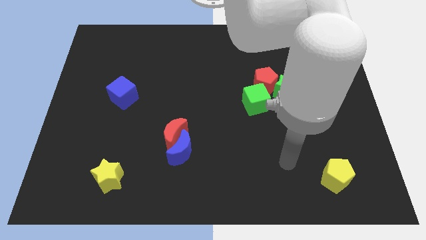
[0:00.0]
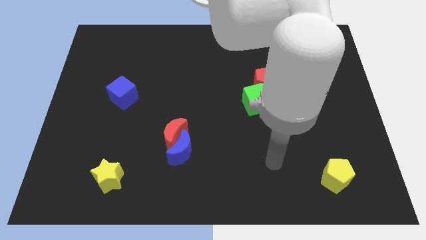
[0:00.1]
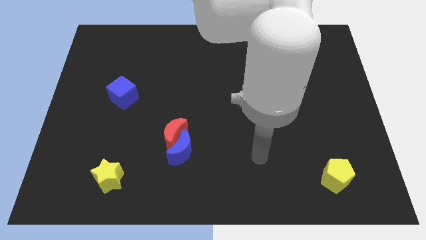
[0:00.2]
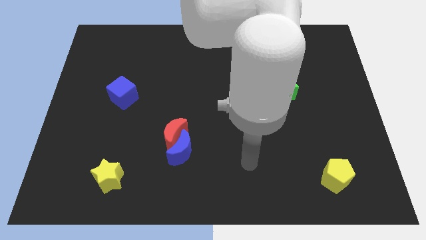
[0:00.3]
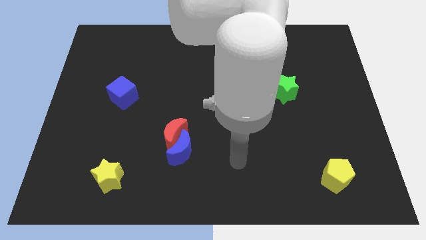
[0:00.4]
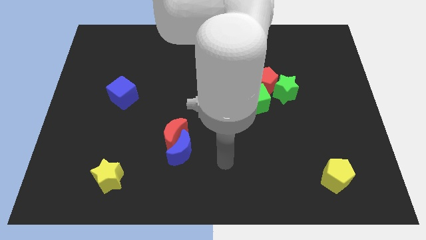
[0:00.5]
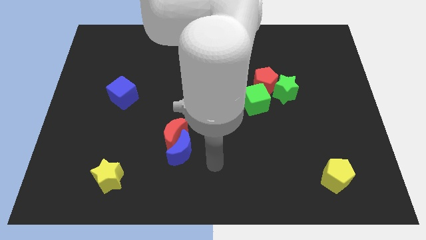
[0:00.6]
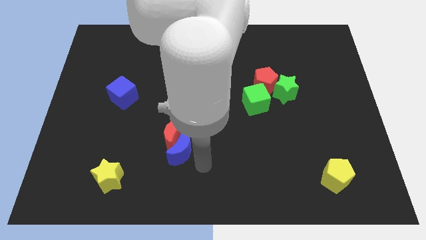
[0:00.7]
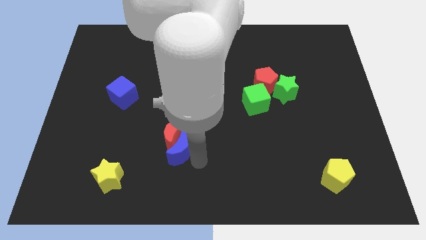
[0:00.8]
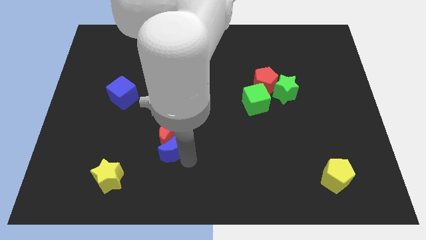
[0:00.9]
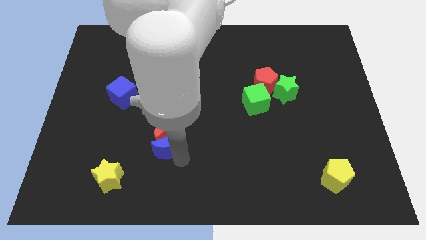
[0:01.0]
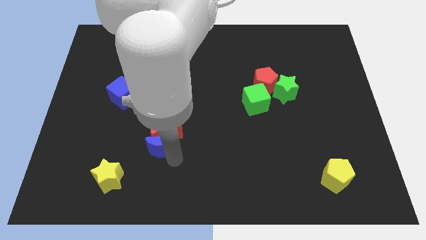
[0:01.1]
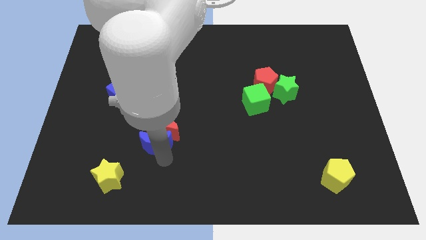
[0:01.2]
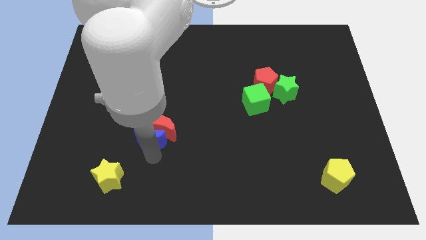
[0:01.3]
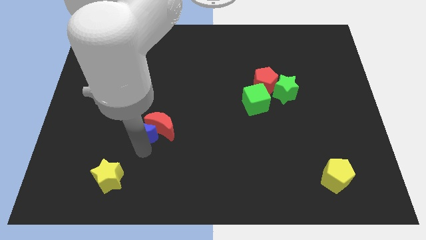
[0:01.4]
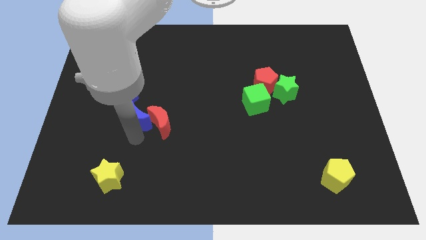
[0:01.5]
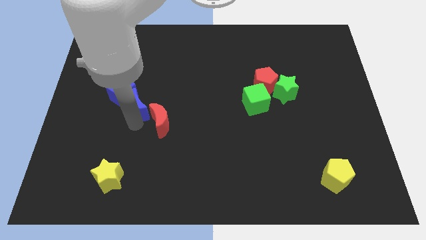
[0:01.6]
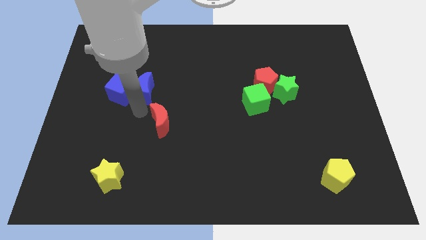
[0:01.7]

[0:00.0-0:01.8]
pull the red moon apart from the blue moon

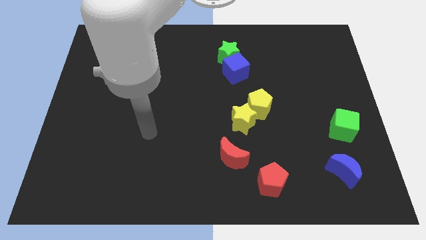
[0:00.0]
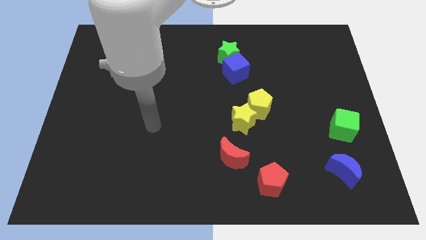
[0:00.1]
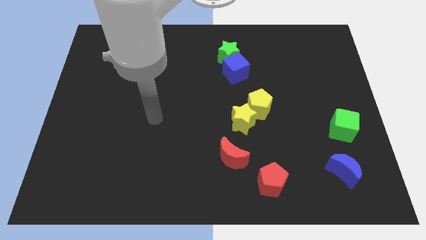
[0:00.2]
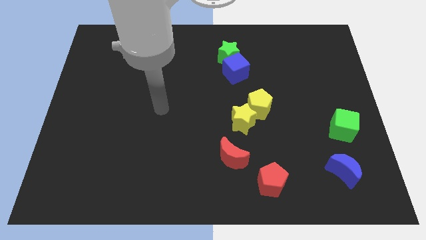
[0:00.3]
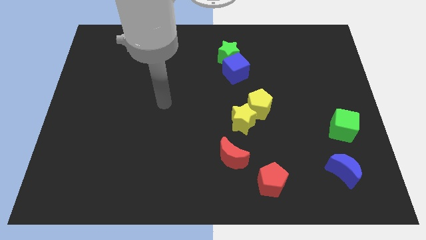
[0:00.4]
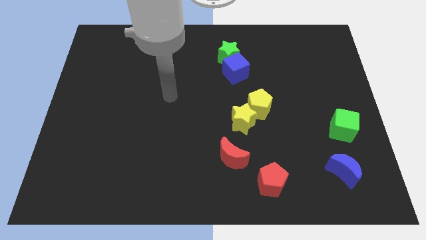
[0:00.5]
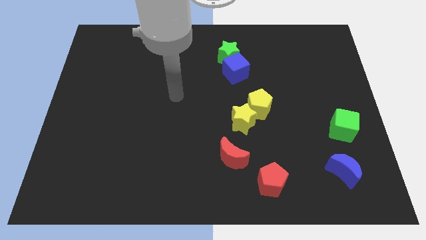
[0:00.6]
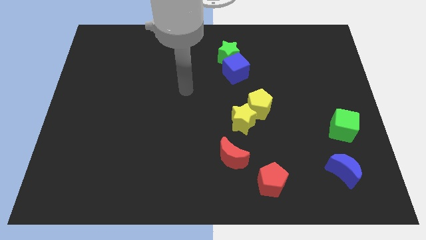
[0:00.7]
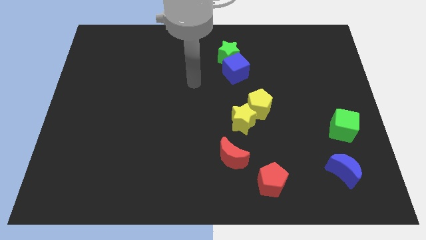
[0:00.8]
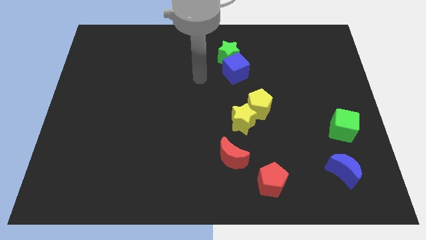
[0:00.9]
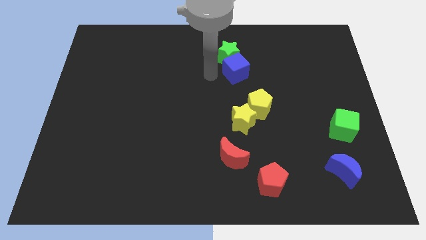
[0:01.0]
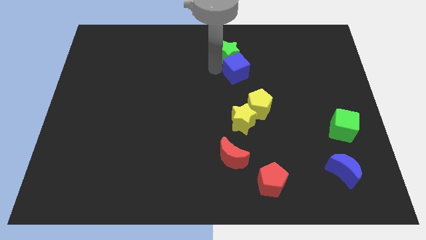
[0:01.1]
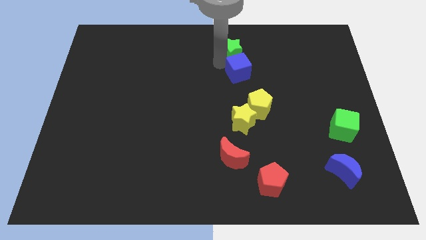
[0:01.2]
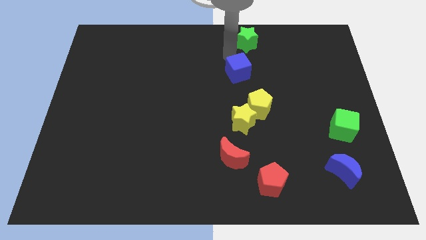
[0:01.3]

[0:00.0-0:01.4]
move the blue cube away from the green star

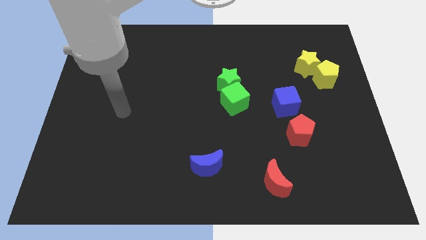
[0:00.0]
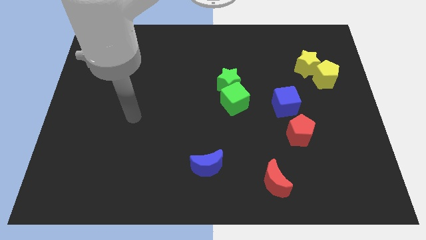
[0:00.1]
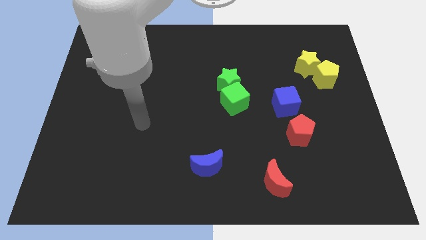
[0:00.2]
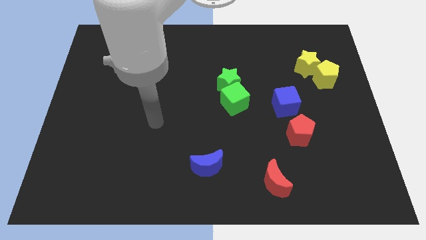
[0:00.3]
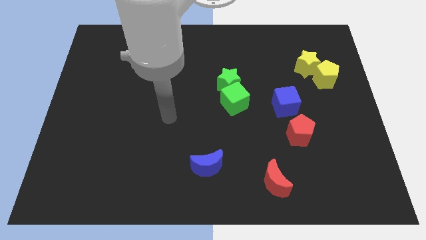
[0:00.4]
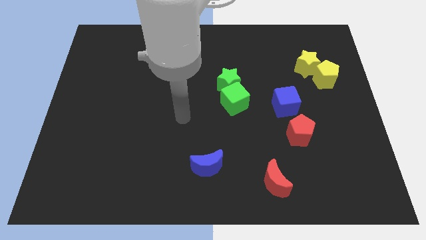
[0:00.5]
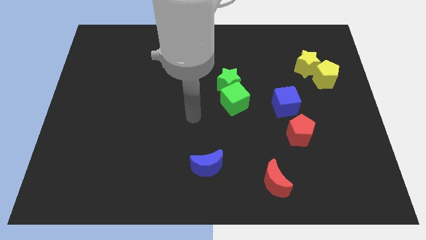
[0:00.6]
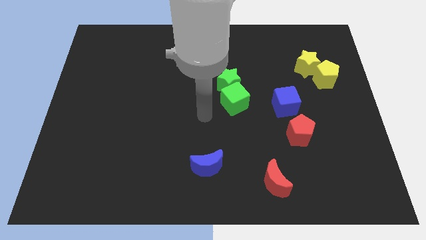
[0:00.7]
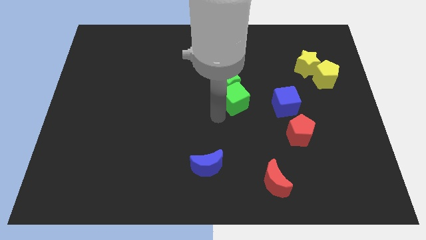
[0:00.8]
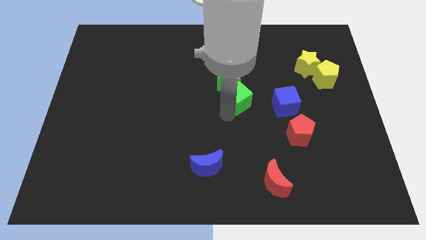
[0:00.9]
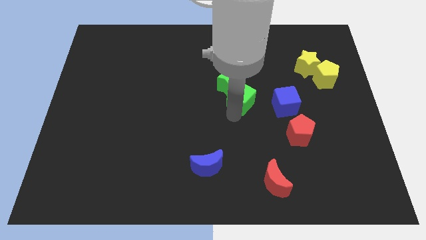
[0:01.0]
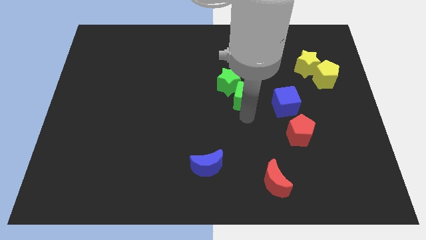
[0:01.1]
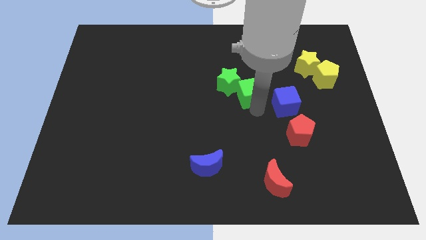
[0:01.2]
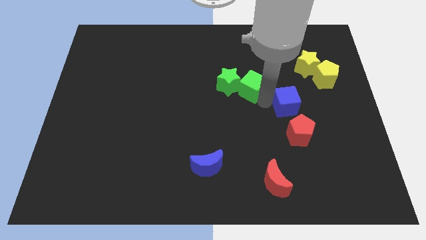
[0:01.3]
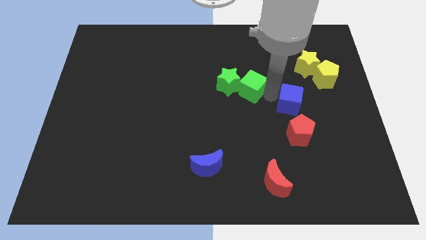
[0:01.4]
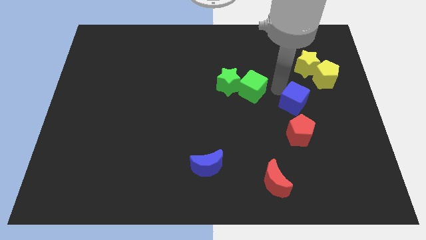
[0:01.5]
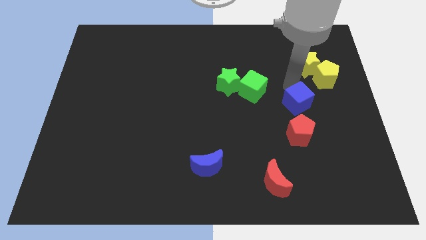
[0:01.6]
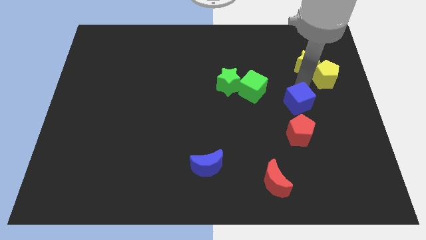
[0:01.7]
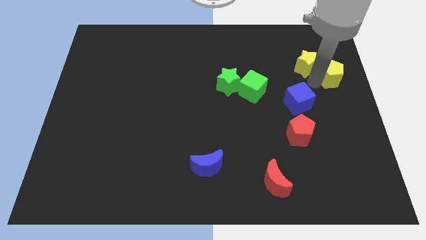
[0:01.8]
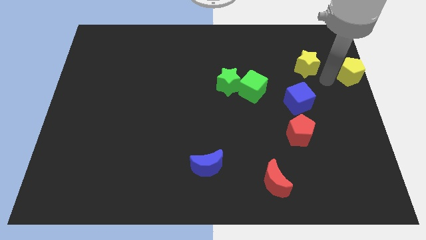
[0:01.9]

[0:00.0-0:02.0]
move the yellow star away from the yellow pentagon

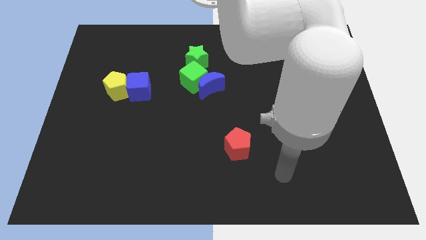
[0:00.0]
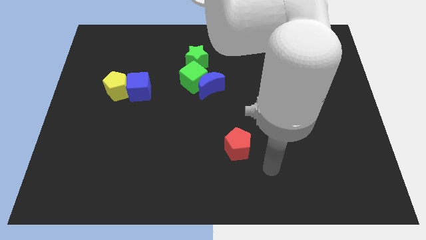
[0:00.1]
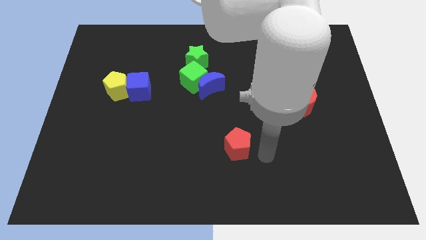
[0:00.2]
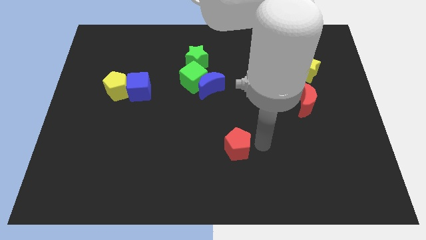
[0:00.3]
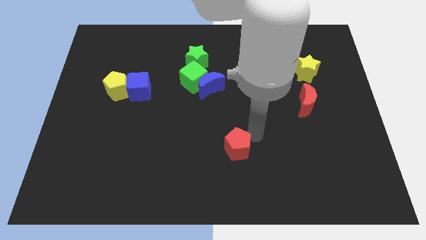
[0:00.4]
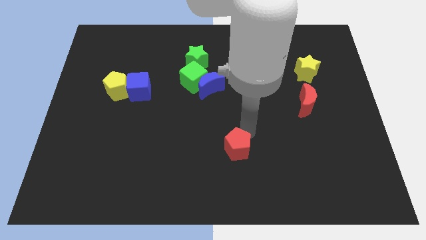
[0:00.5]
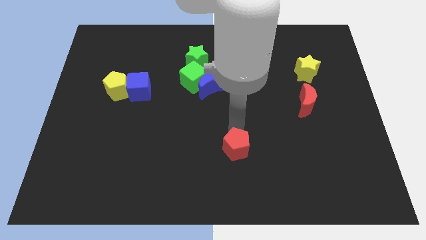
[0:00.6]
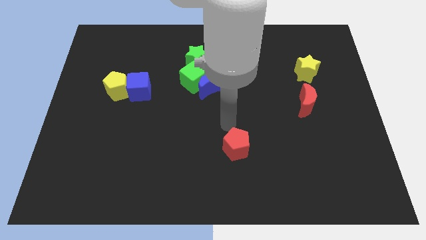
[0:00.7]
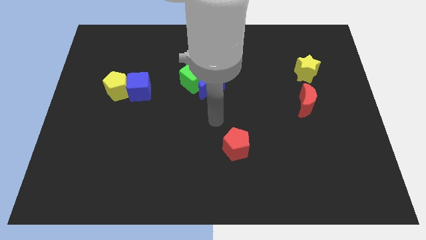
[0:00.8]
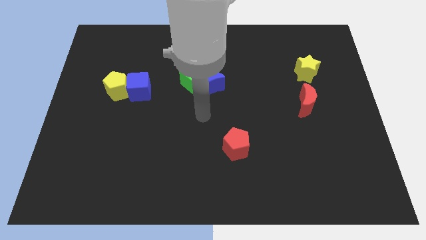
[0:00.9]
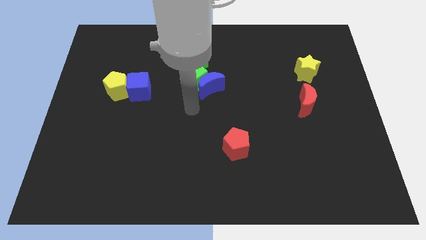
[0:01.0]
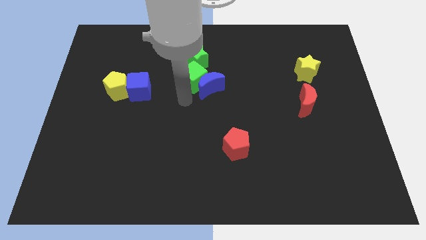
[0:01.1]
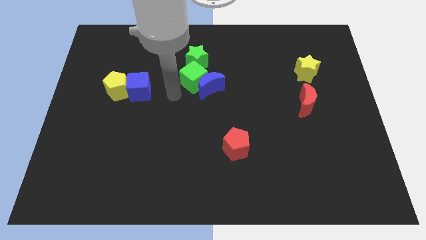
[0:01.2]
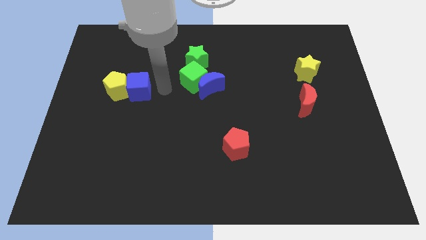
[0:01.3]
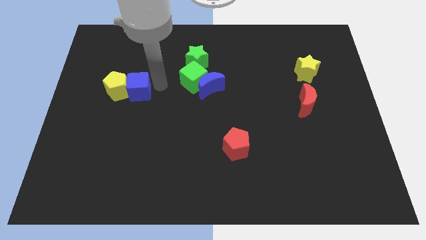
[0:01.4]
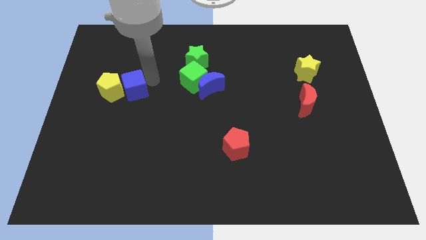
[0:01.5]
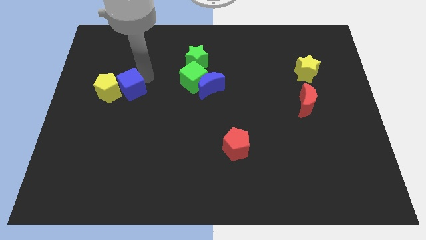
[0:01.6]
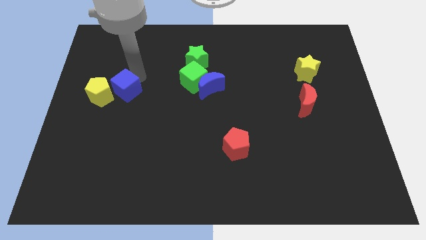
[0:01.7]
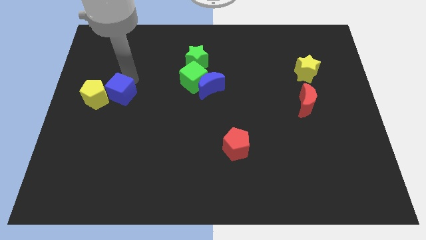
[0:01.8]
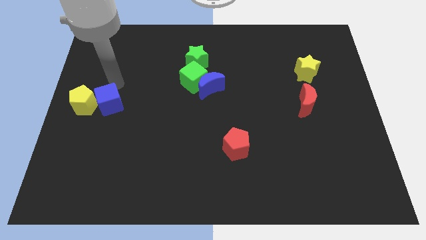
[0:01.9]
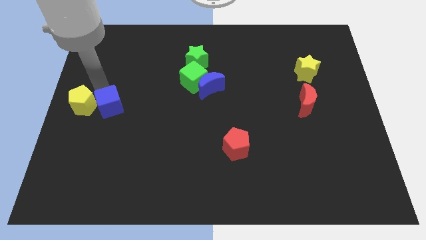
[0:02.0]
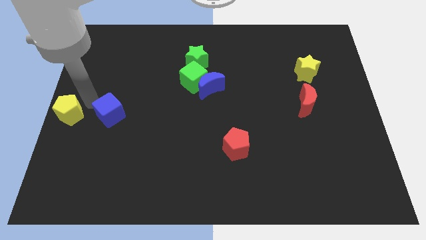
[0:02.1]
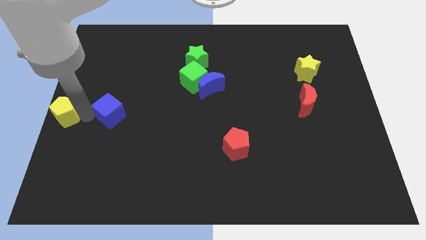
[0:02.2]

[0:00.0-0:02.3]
separate the blue cube from the yellow pentagon

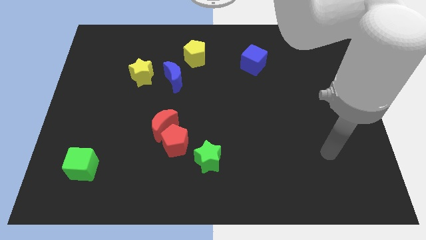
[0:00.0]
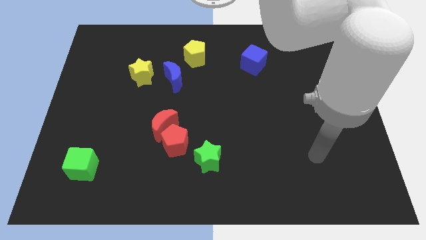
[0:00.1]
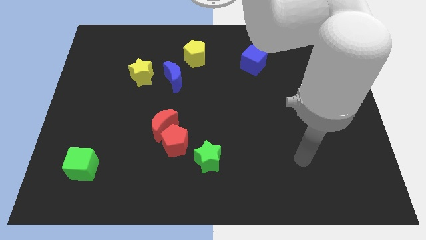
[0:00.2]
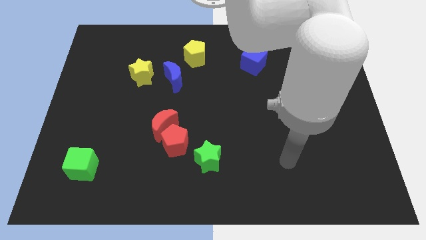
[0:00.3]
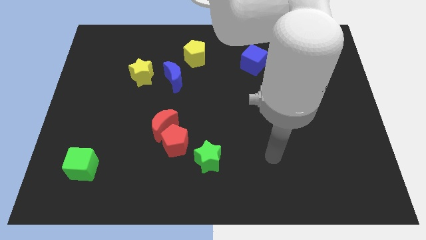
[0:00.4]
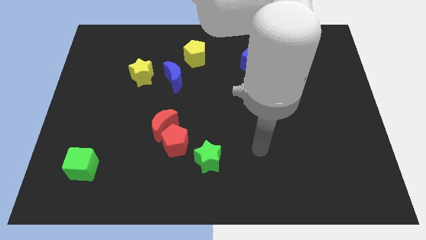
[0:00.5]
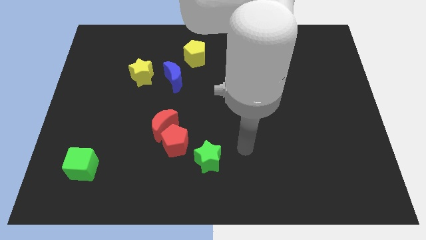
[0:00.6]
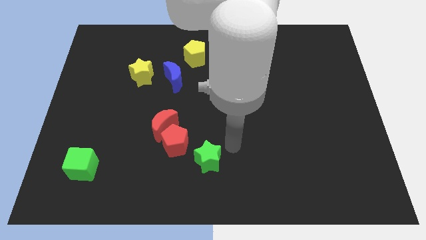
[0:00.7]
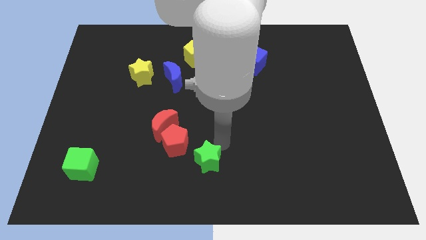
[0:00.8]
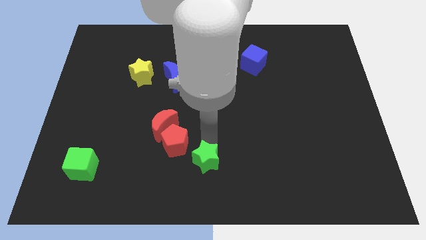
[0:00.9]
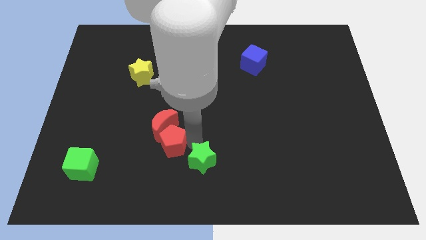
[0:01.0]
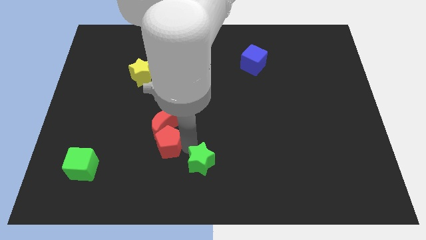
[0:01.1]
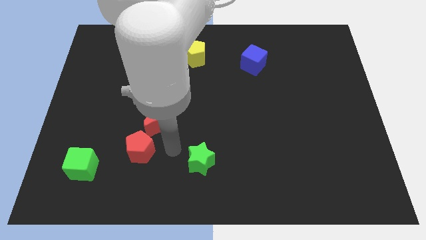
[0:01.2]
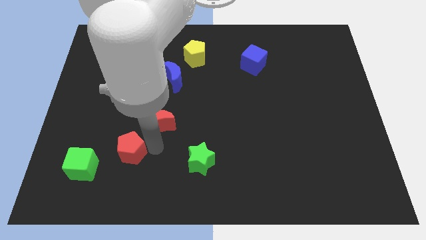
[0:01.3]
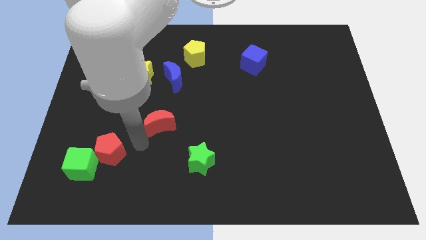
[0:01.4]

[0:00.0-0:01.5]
separate the red moon from the red pentagon

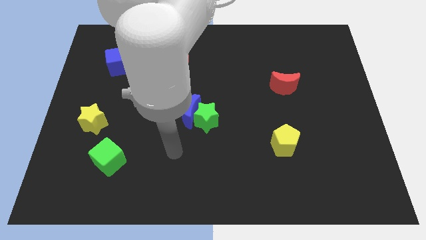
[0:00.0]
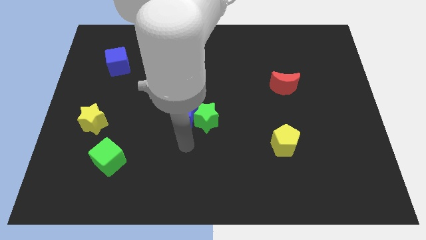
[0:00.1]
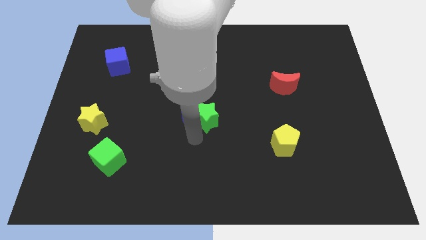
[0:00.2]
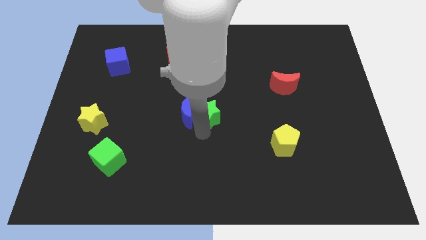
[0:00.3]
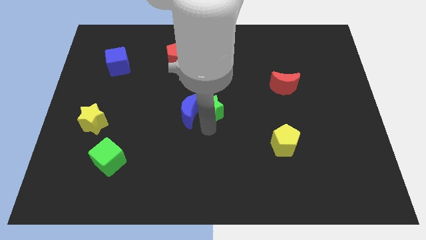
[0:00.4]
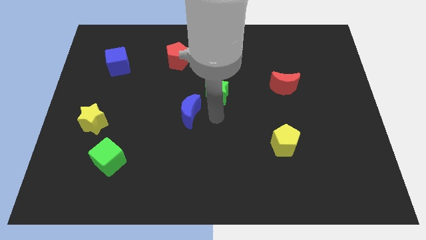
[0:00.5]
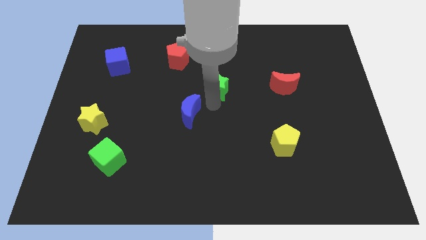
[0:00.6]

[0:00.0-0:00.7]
pull the blue moon apart from the green star
